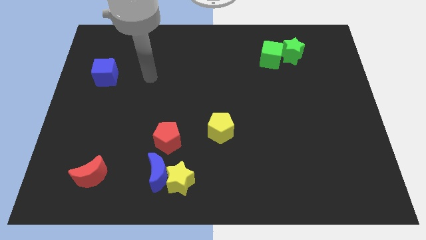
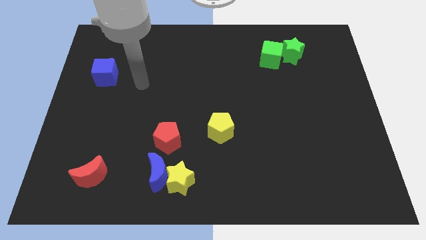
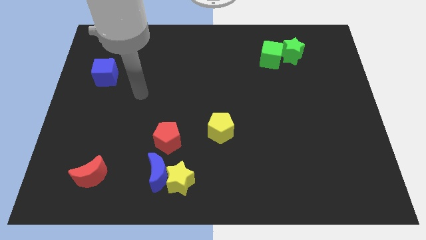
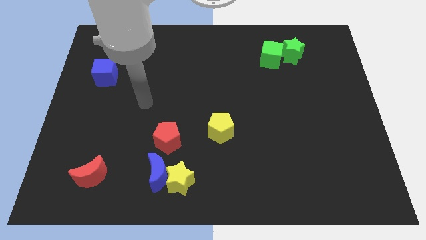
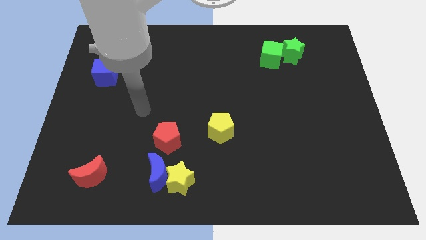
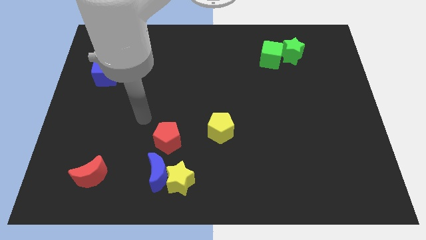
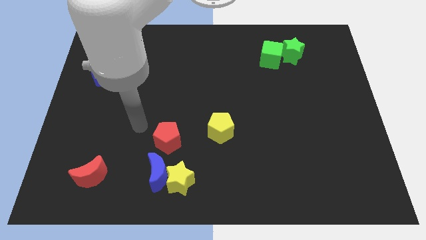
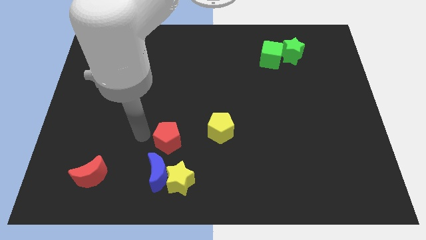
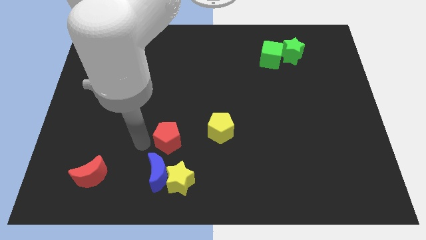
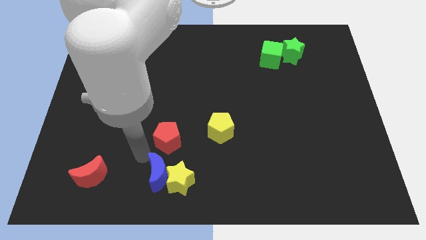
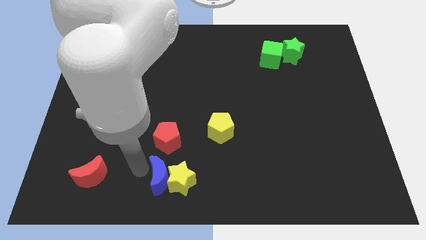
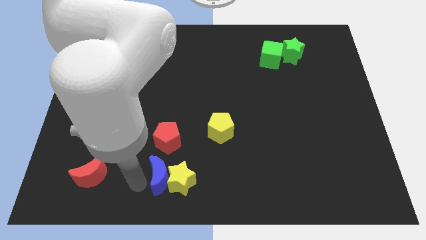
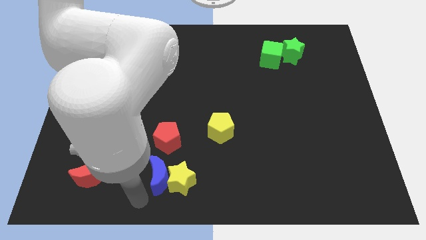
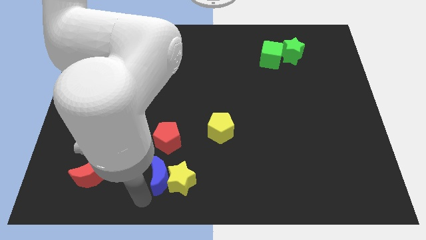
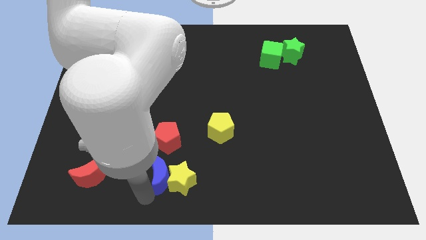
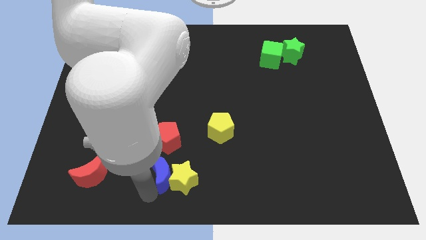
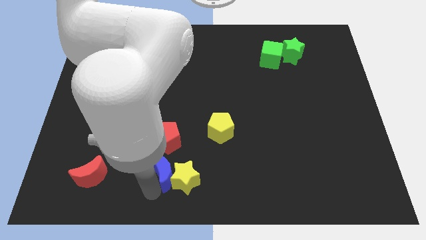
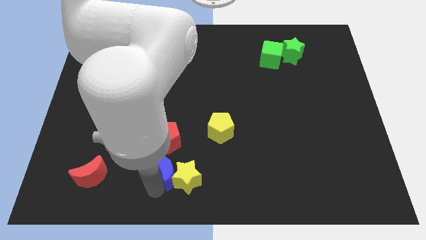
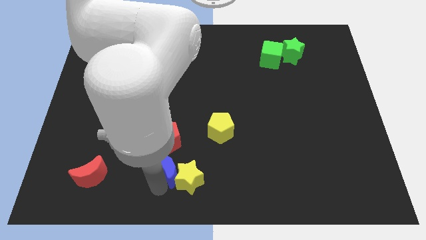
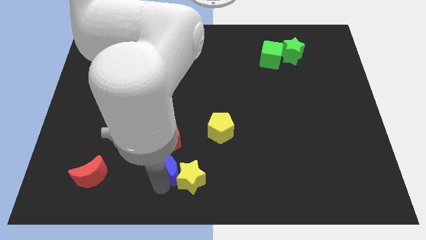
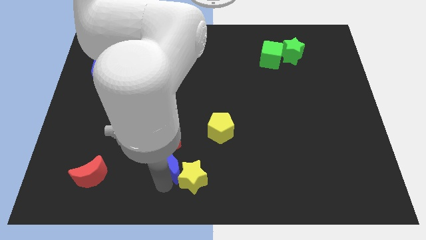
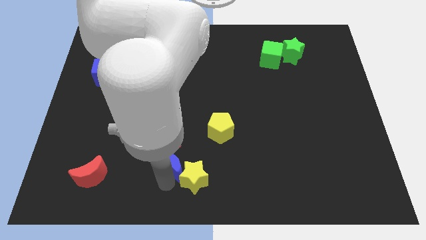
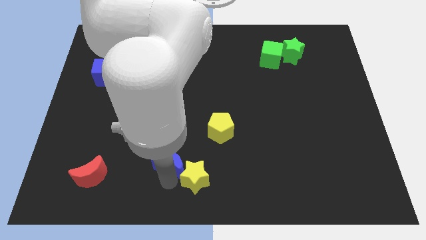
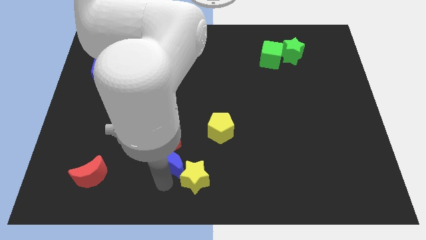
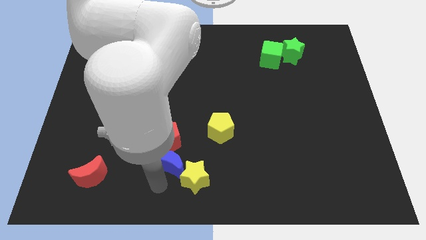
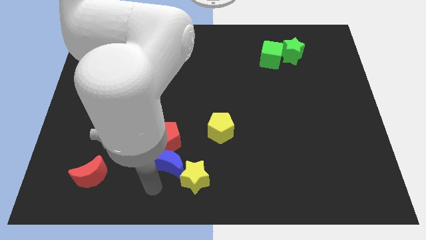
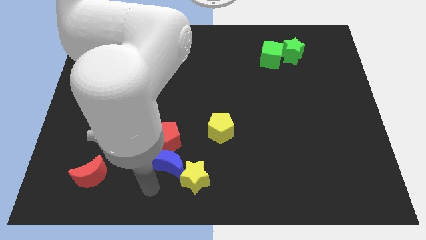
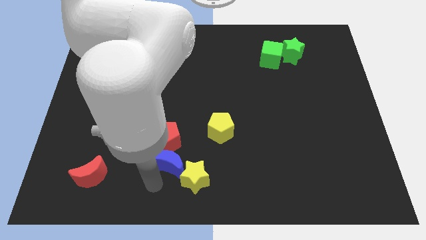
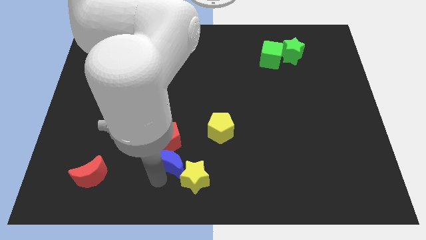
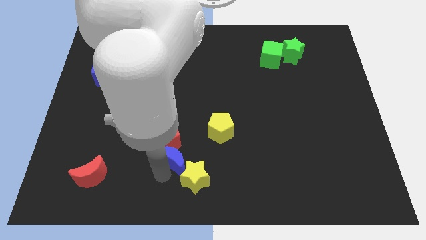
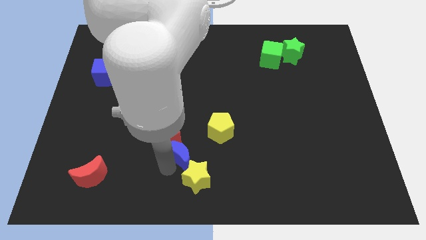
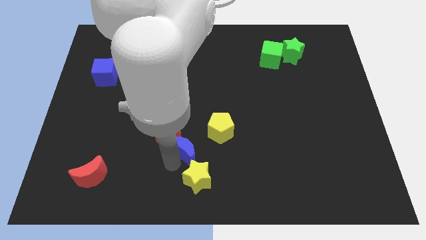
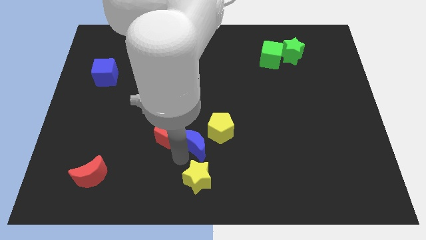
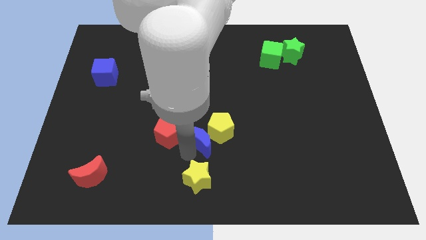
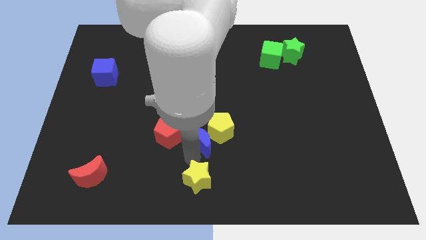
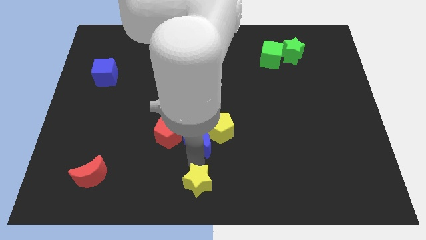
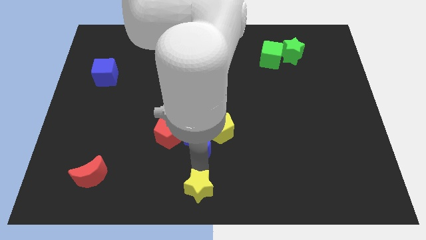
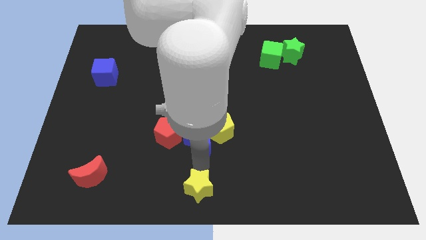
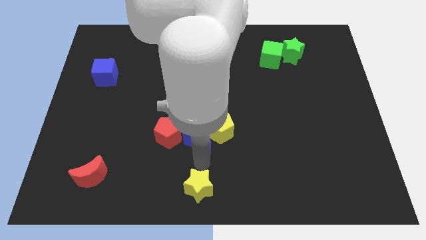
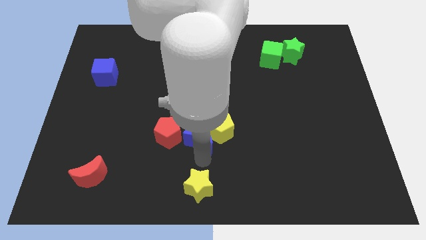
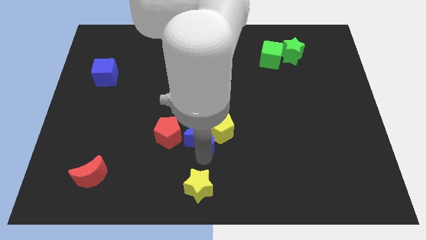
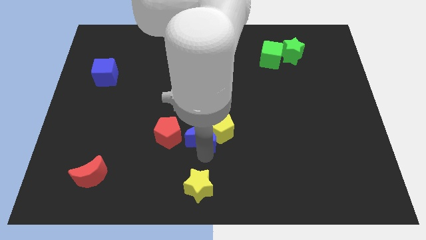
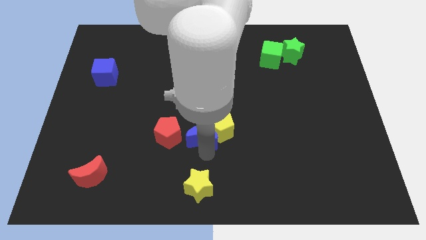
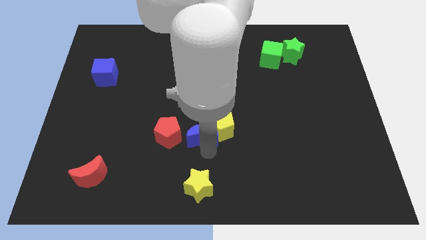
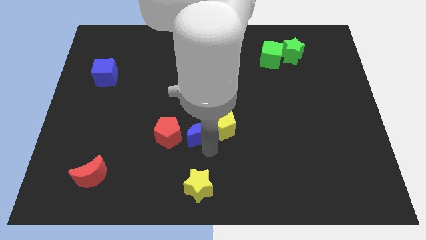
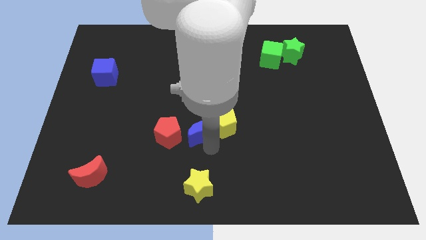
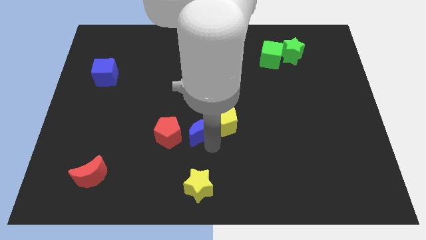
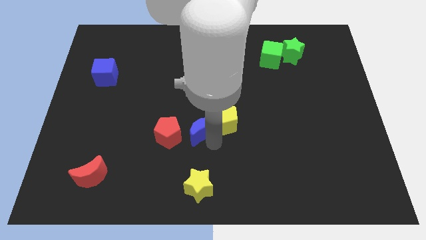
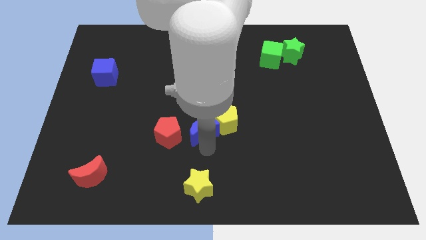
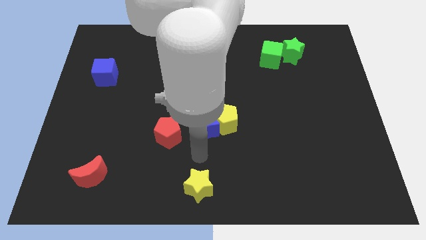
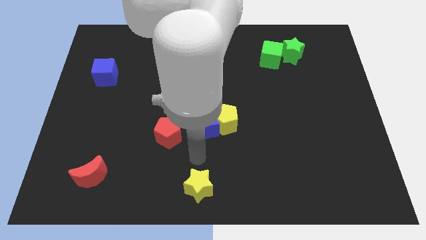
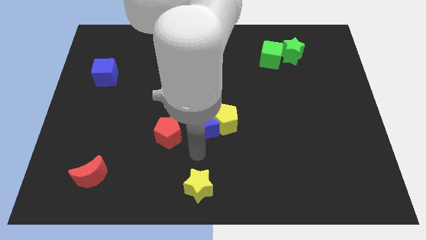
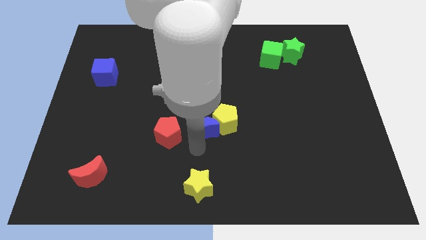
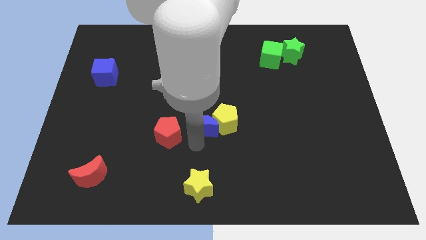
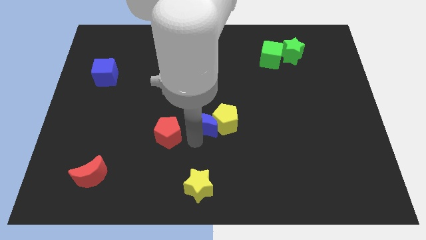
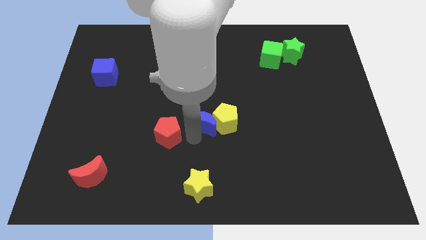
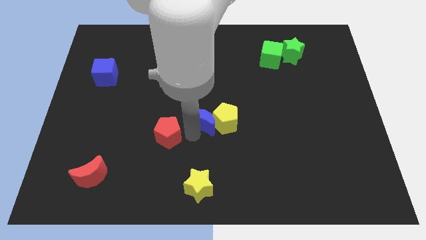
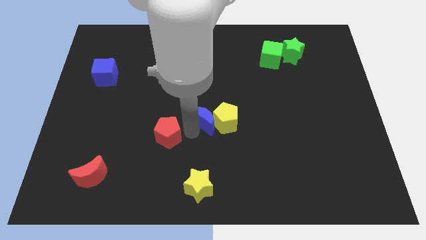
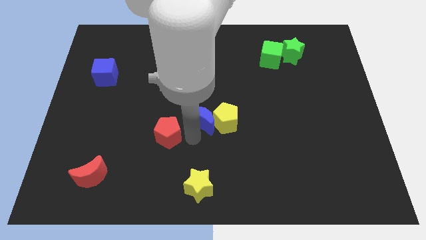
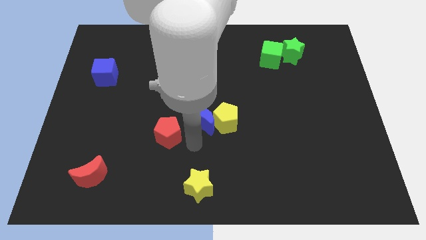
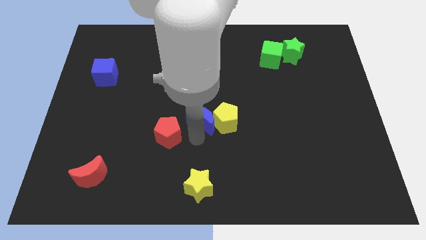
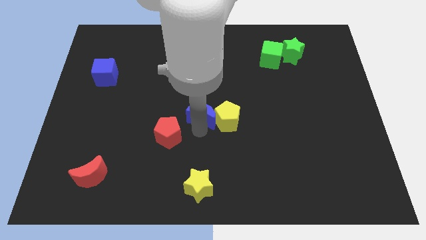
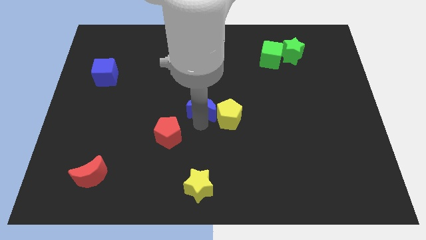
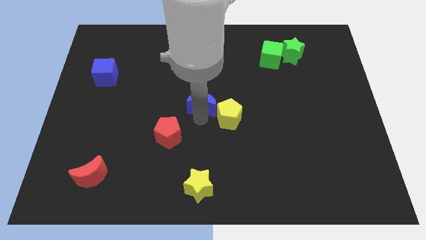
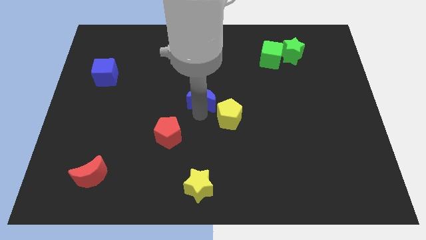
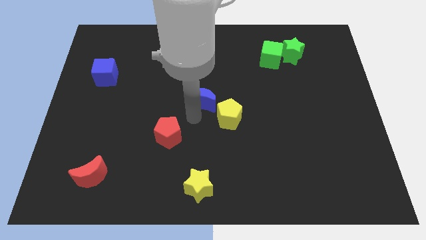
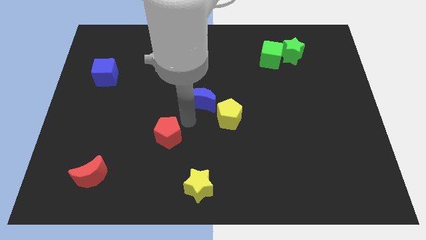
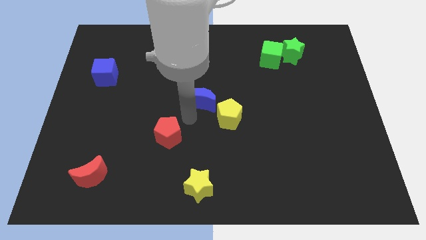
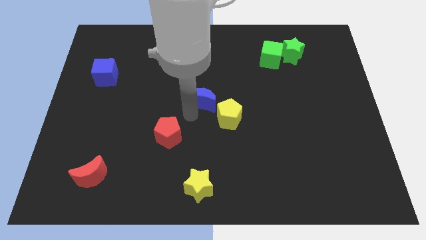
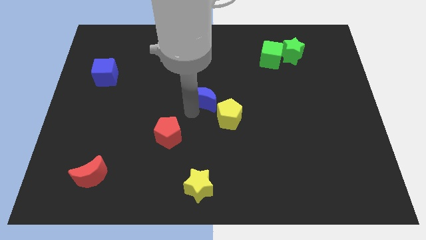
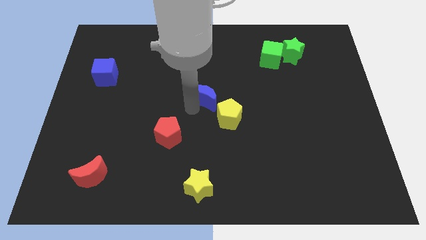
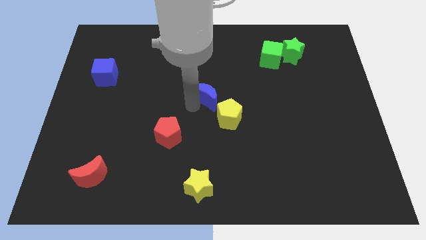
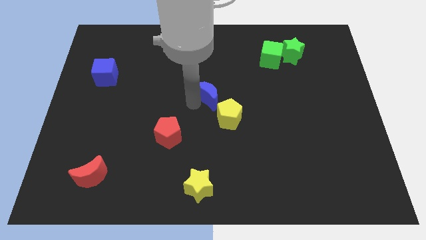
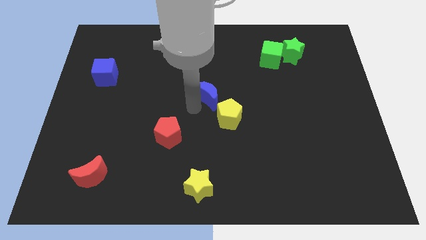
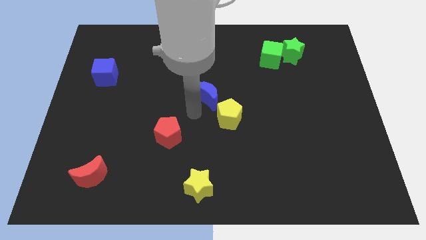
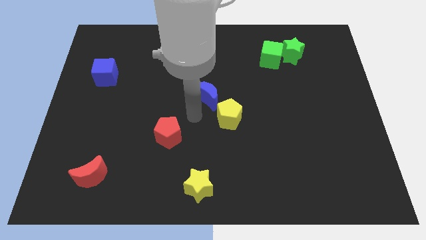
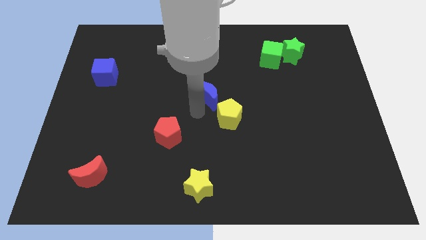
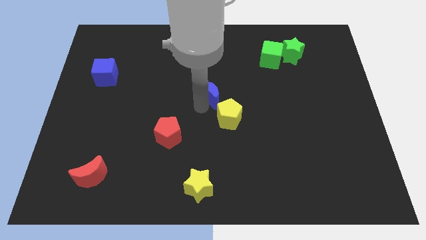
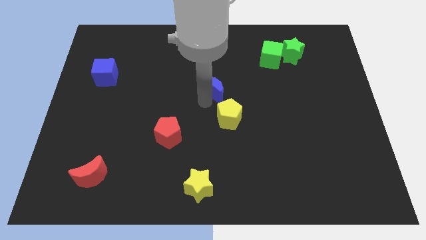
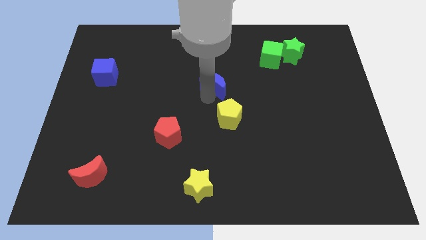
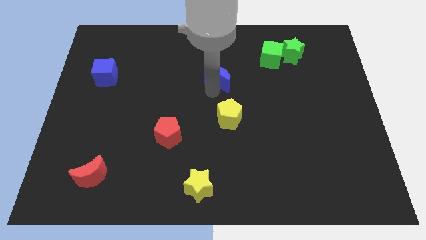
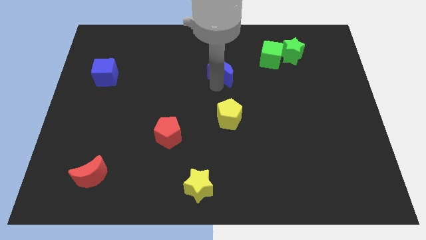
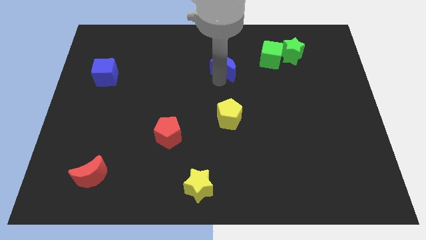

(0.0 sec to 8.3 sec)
slide the blue moon left of the green cube
